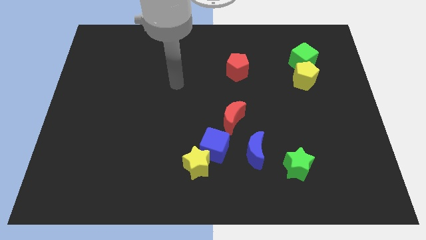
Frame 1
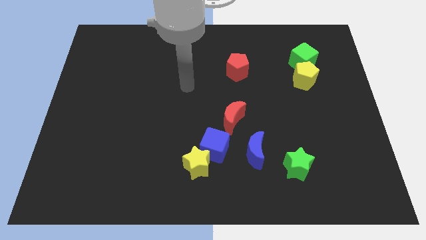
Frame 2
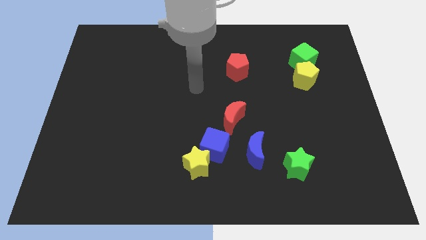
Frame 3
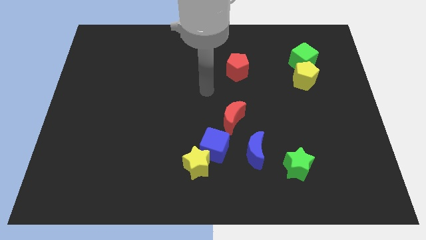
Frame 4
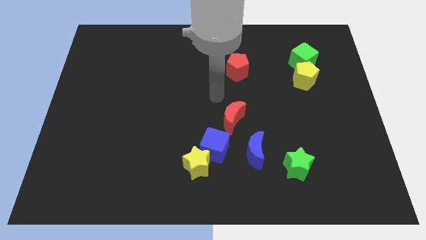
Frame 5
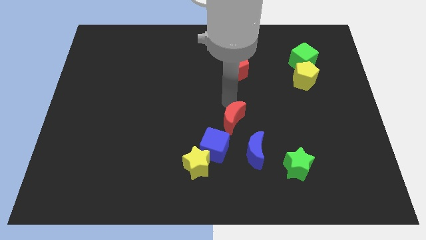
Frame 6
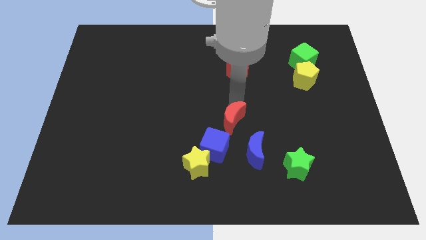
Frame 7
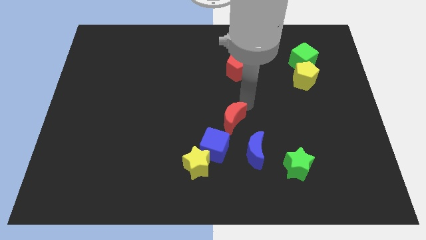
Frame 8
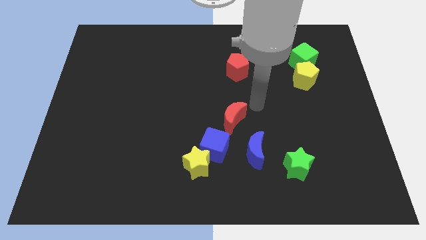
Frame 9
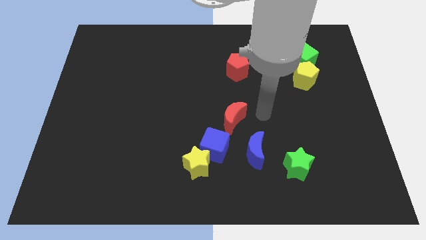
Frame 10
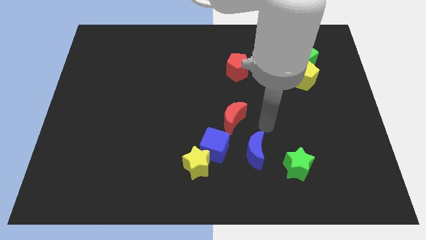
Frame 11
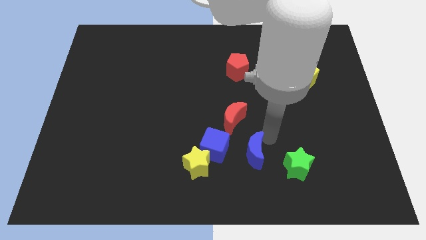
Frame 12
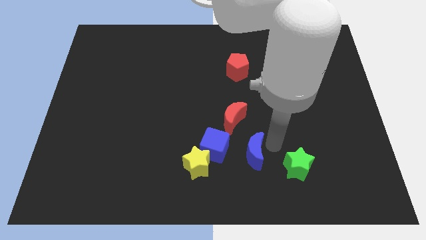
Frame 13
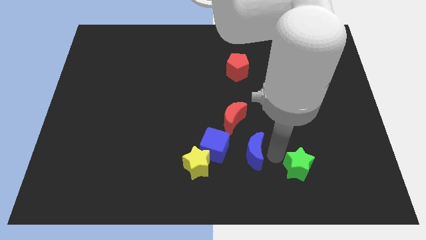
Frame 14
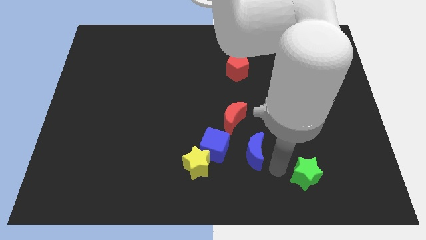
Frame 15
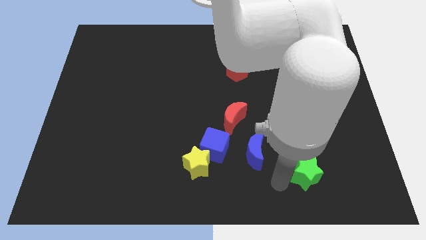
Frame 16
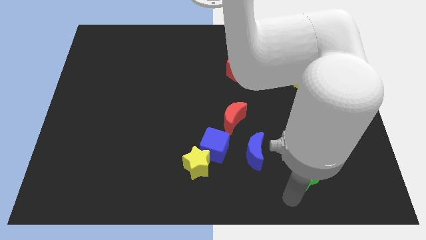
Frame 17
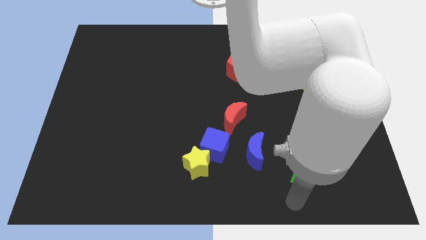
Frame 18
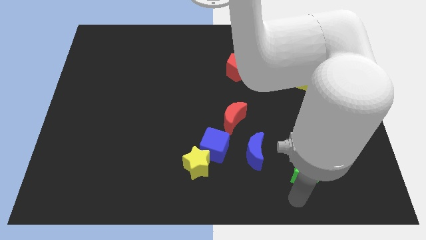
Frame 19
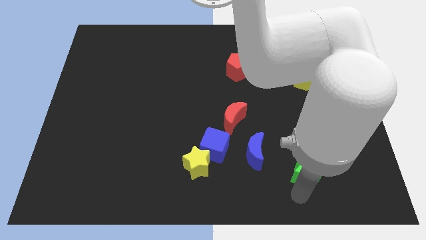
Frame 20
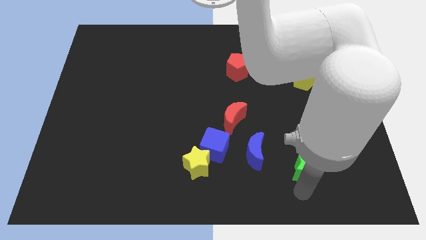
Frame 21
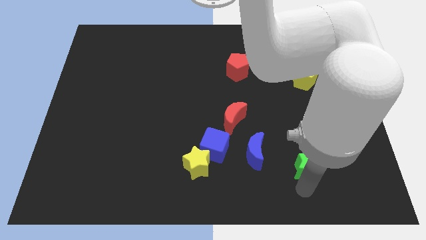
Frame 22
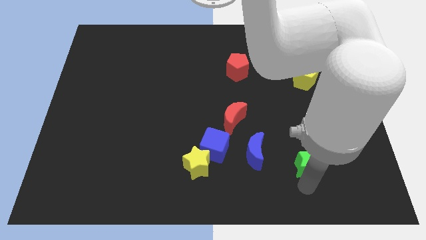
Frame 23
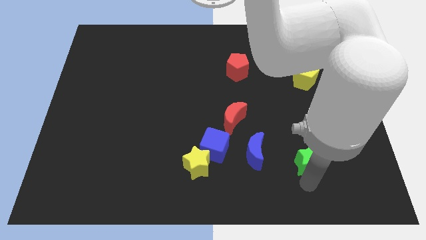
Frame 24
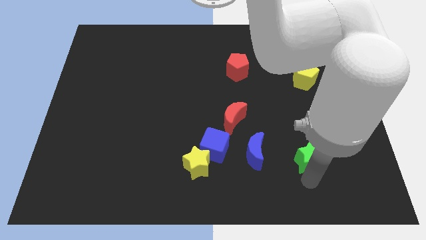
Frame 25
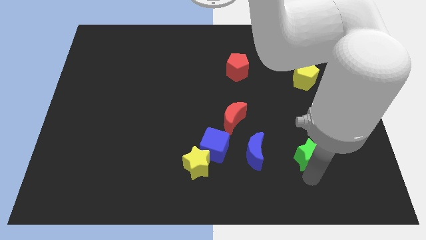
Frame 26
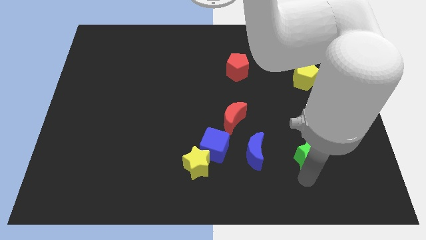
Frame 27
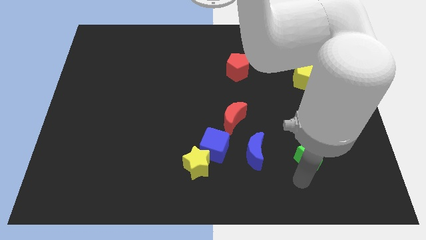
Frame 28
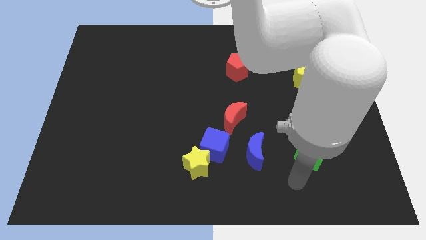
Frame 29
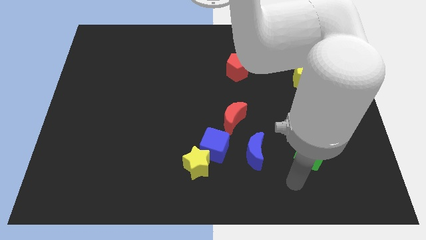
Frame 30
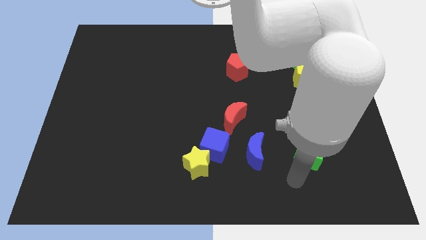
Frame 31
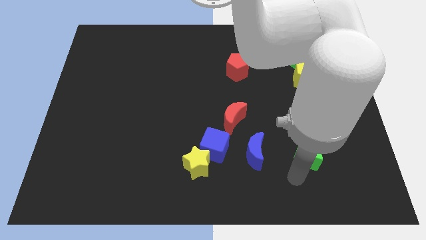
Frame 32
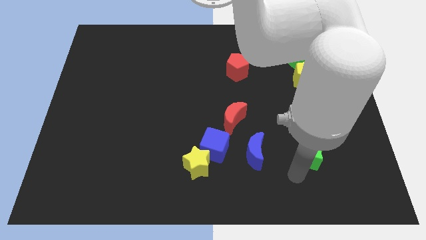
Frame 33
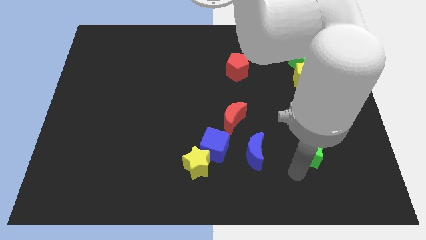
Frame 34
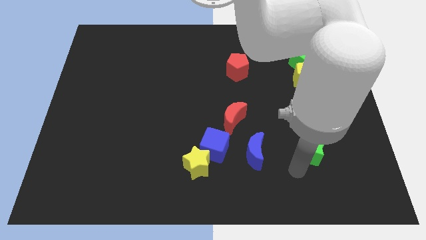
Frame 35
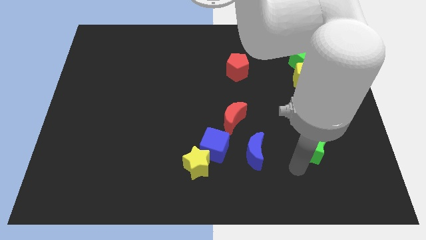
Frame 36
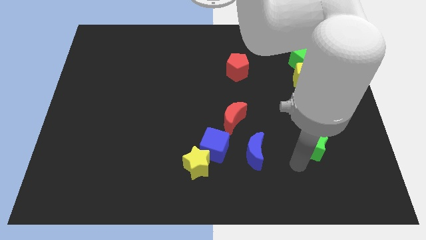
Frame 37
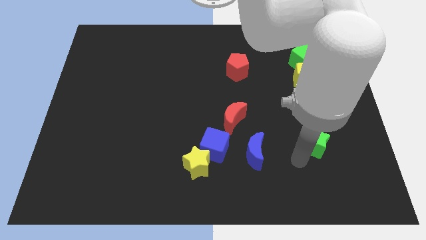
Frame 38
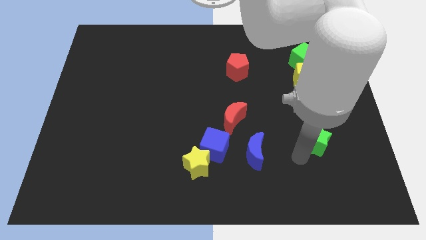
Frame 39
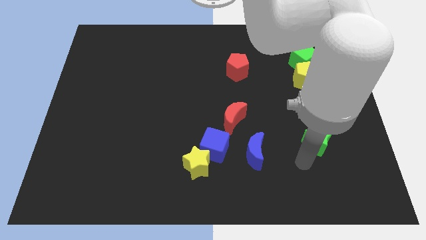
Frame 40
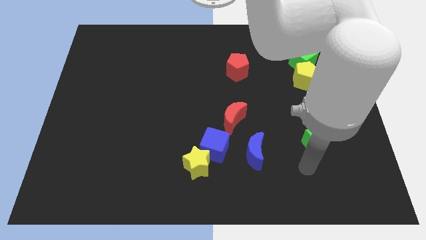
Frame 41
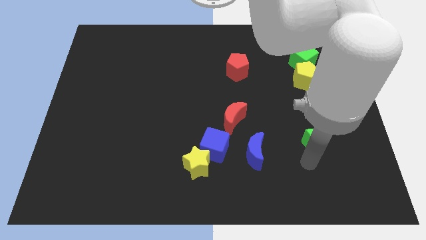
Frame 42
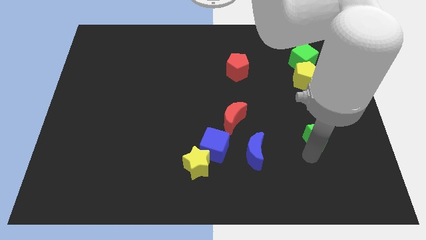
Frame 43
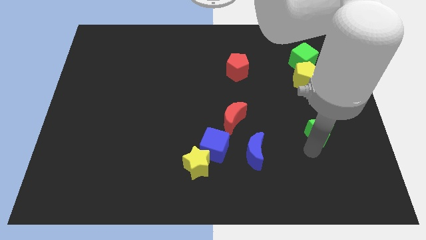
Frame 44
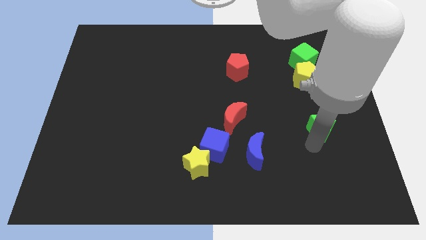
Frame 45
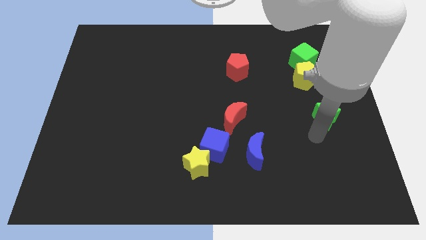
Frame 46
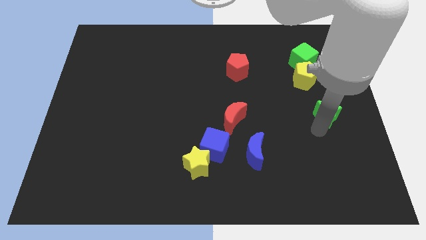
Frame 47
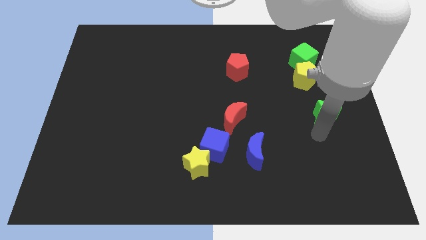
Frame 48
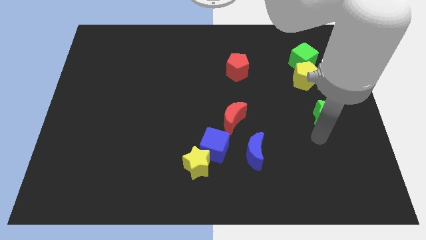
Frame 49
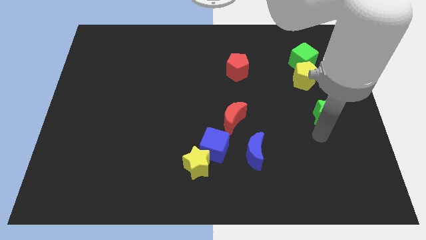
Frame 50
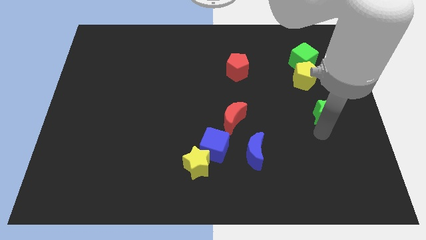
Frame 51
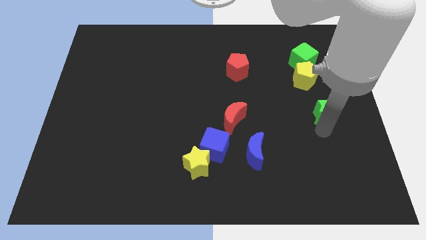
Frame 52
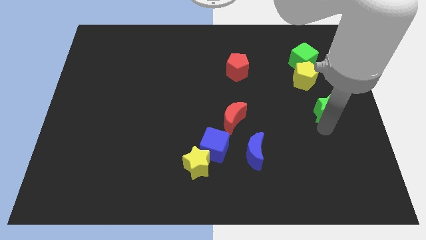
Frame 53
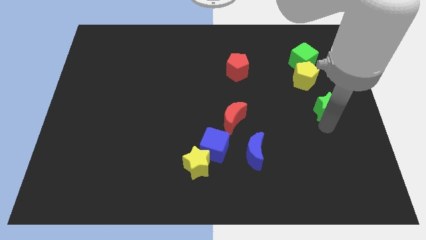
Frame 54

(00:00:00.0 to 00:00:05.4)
move the green star to the bottom right side of the yellow pentagon

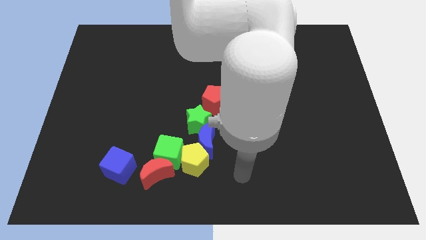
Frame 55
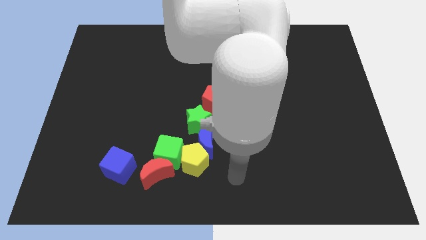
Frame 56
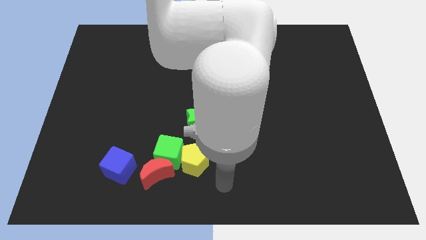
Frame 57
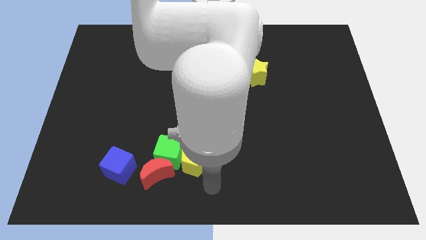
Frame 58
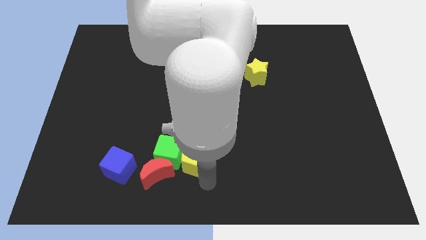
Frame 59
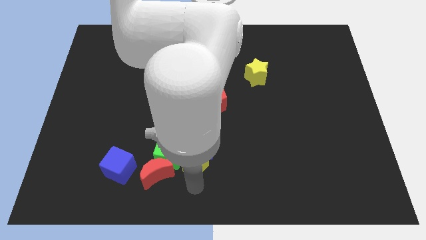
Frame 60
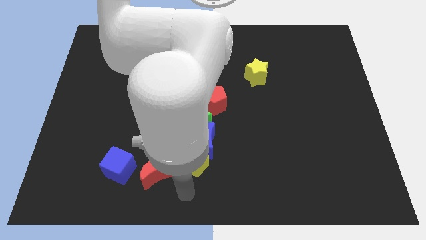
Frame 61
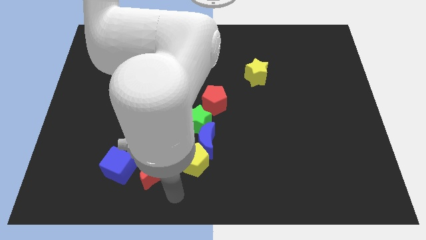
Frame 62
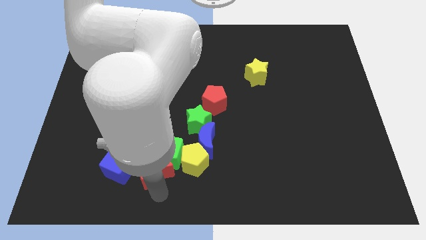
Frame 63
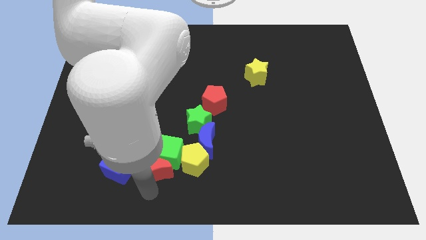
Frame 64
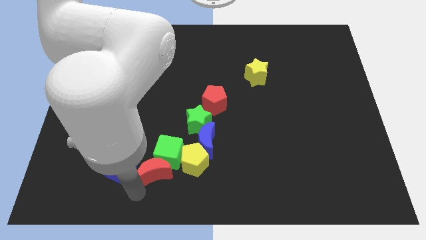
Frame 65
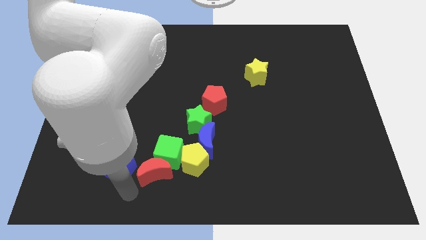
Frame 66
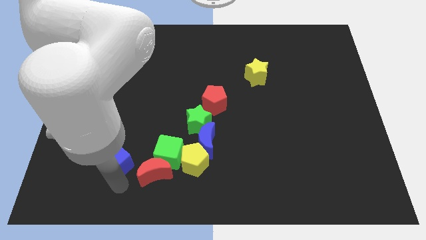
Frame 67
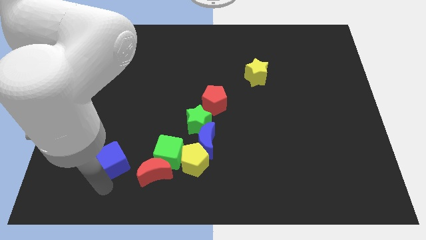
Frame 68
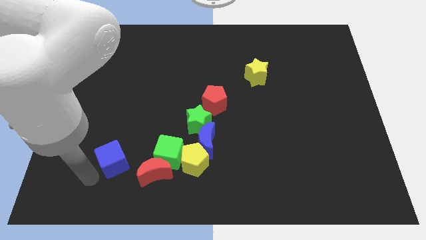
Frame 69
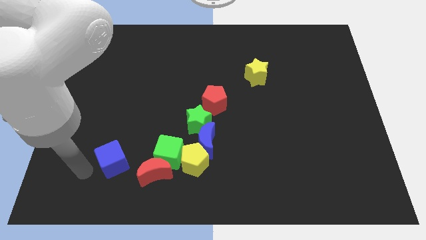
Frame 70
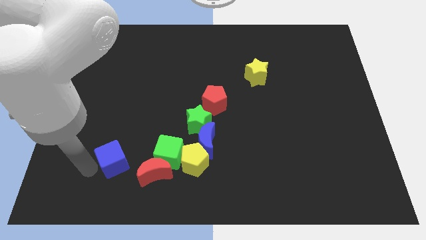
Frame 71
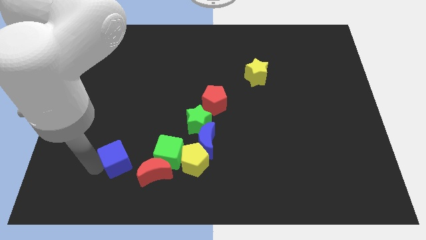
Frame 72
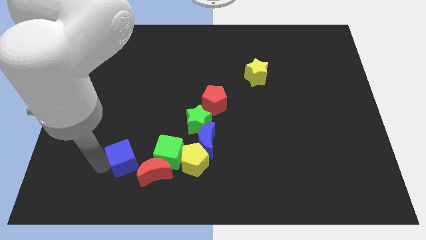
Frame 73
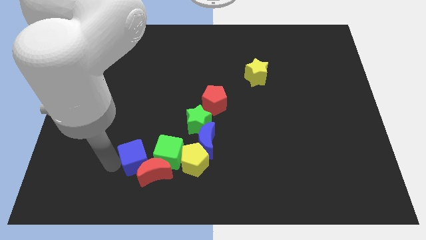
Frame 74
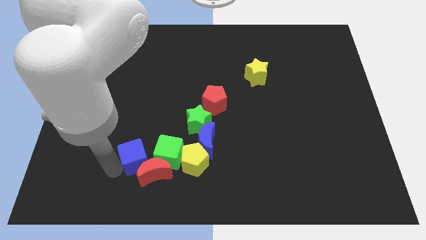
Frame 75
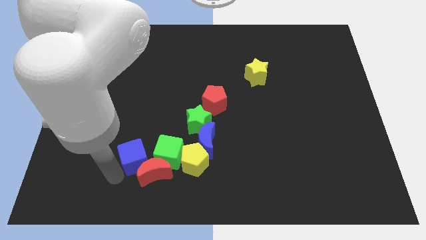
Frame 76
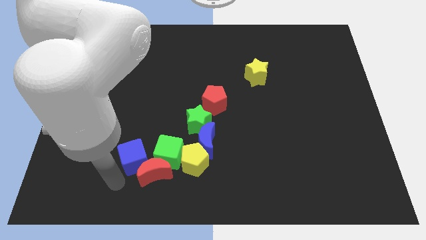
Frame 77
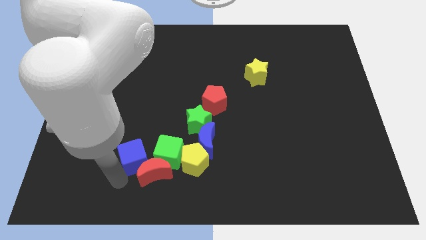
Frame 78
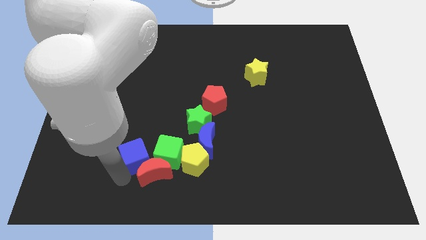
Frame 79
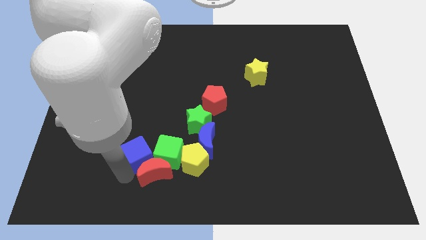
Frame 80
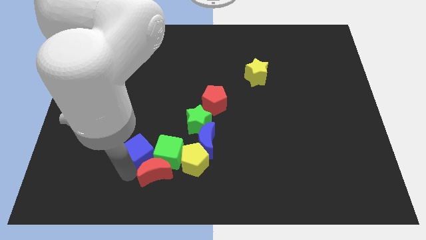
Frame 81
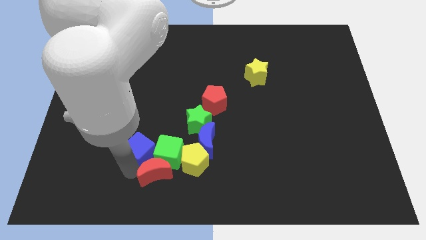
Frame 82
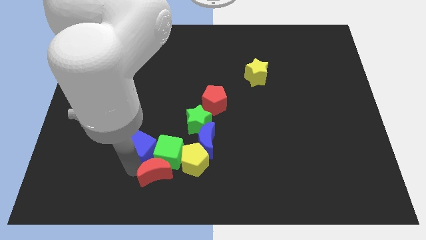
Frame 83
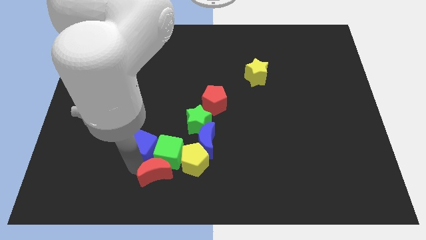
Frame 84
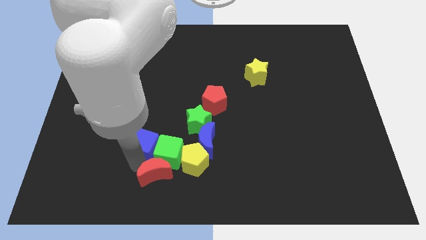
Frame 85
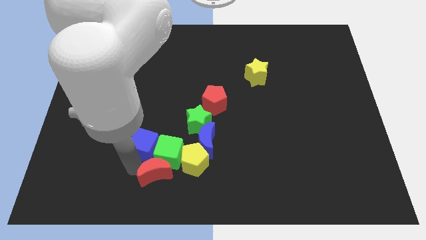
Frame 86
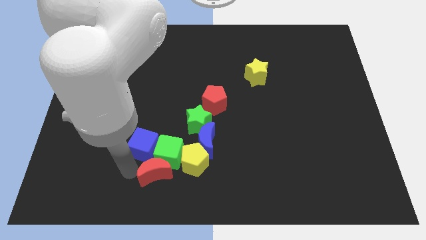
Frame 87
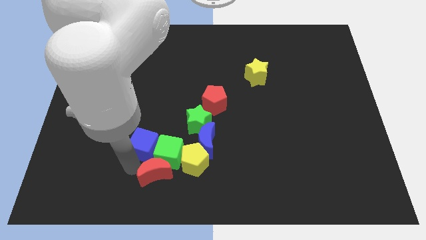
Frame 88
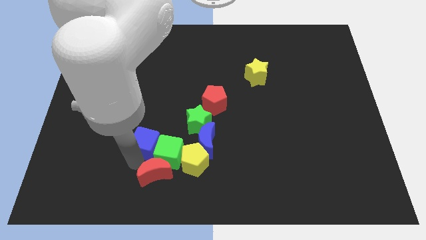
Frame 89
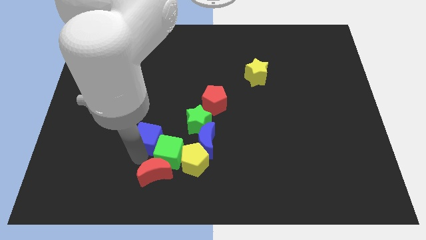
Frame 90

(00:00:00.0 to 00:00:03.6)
slide the blue cube to the top of the green cube
